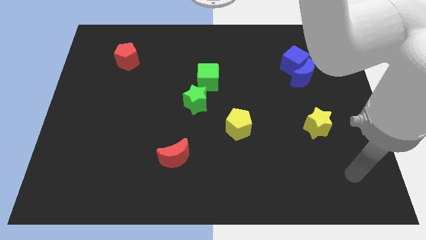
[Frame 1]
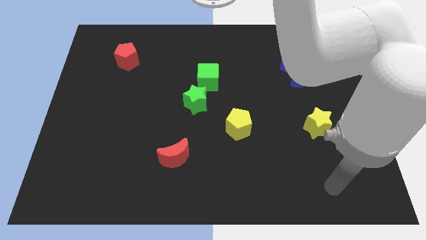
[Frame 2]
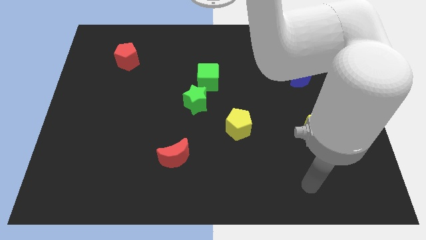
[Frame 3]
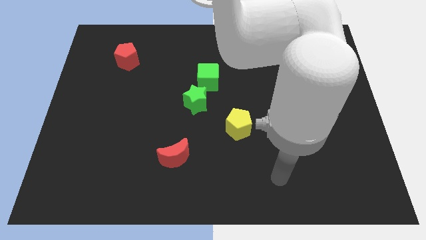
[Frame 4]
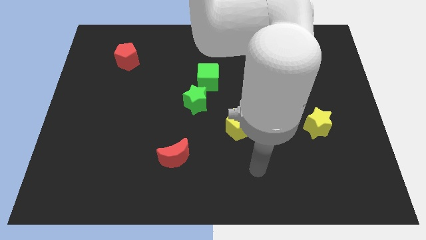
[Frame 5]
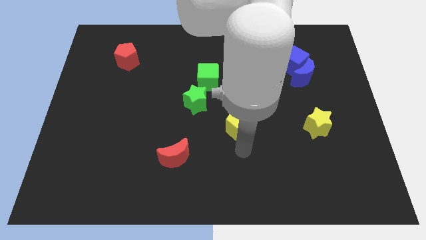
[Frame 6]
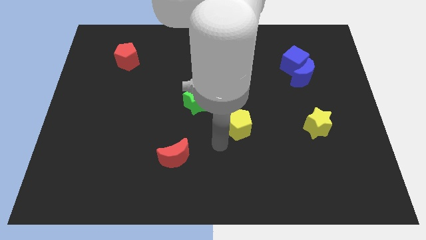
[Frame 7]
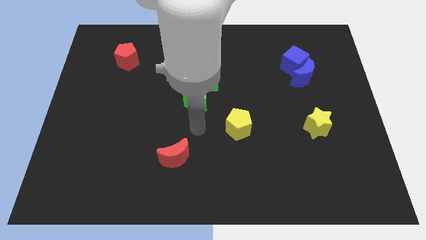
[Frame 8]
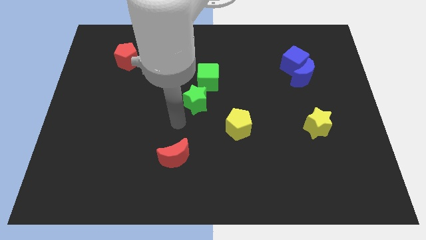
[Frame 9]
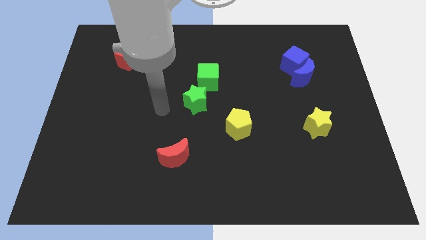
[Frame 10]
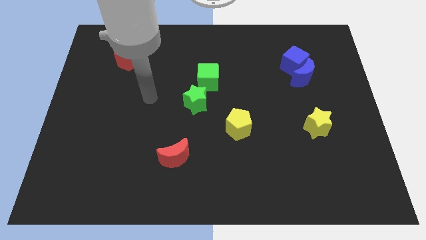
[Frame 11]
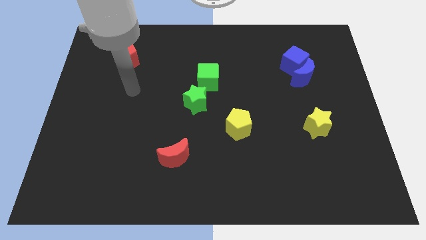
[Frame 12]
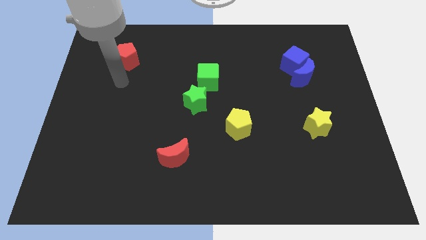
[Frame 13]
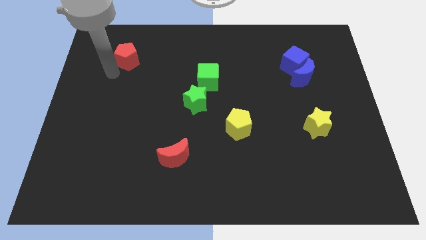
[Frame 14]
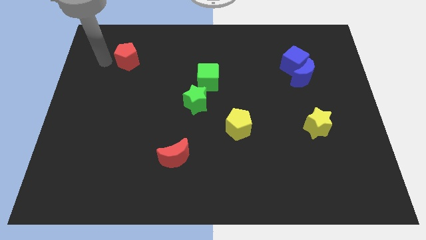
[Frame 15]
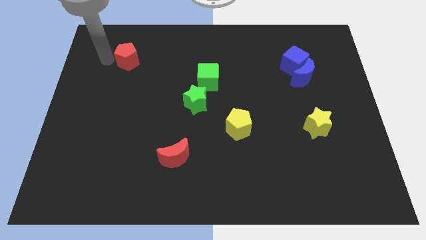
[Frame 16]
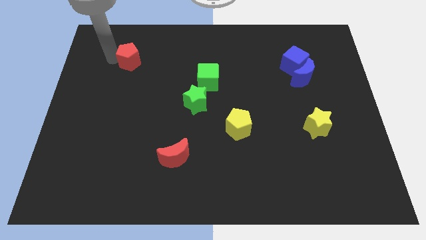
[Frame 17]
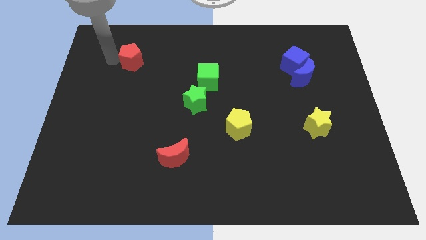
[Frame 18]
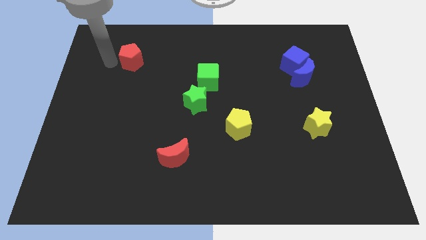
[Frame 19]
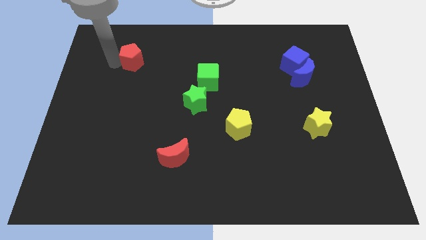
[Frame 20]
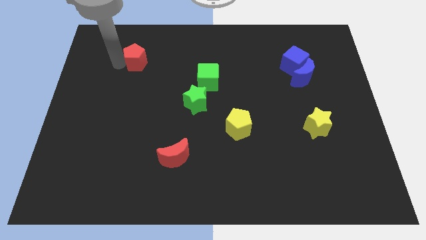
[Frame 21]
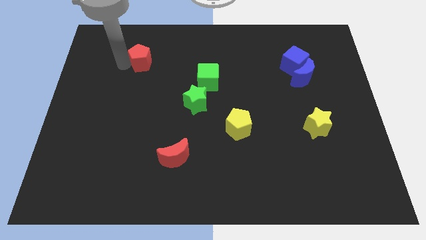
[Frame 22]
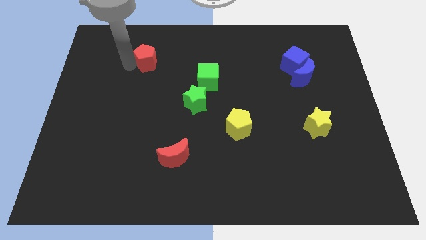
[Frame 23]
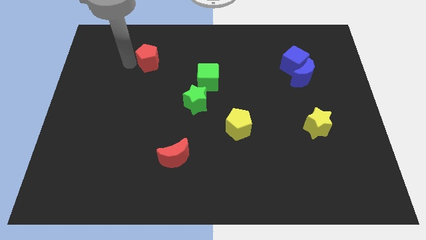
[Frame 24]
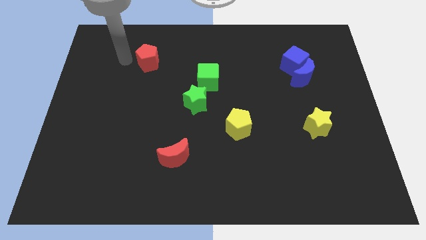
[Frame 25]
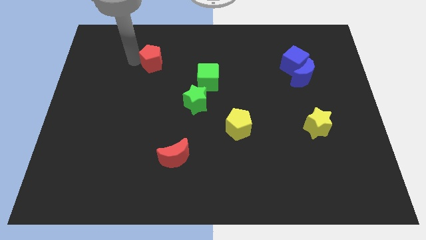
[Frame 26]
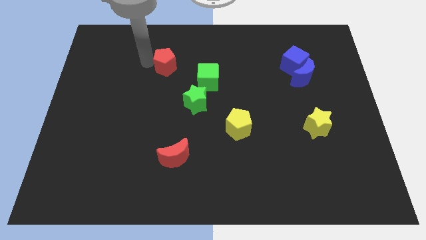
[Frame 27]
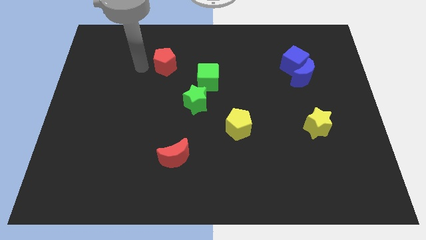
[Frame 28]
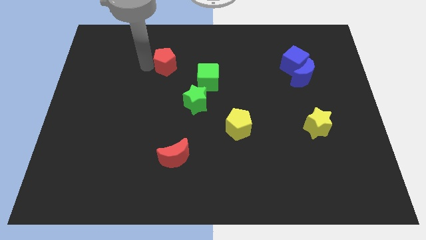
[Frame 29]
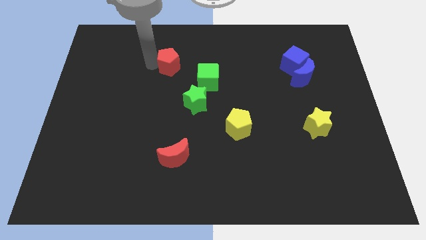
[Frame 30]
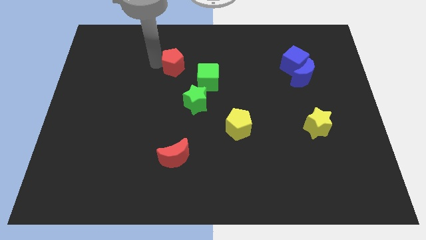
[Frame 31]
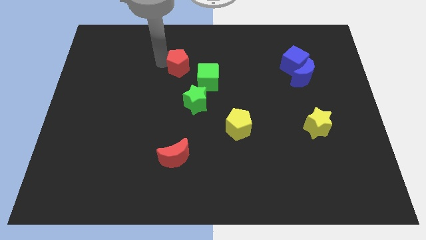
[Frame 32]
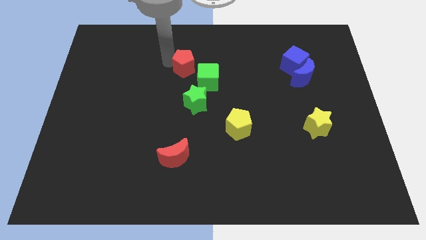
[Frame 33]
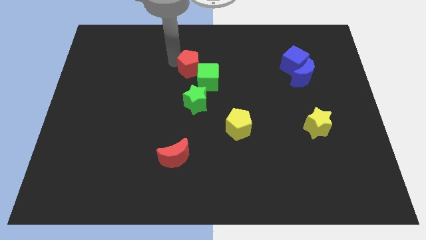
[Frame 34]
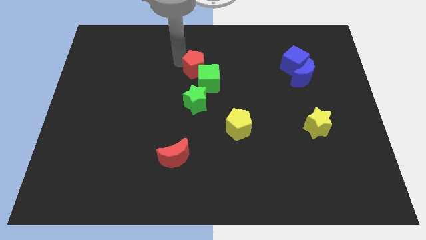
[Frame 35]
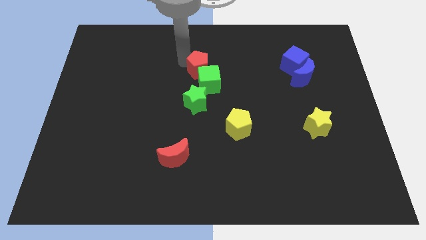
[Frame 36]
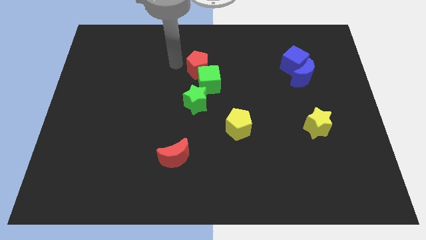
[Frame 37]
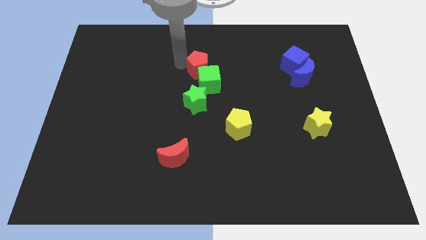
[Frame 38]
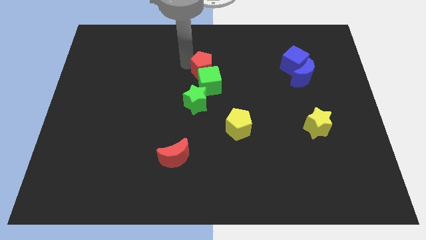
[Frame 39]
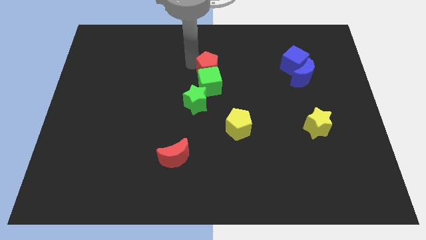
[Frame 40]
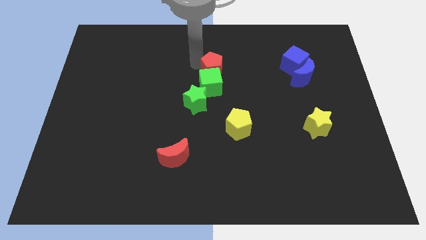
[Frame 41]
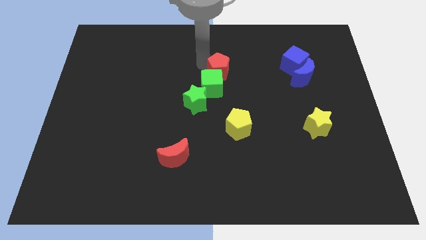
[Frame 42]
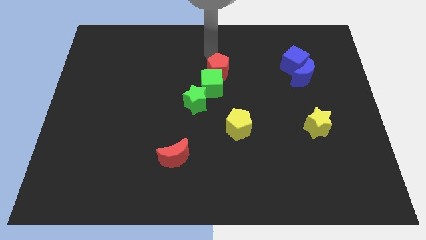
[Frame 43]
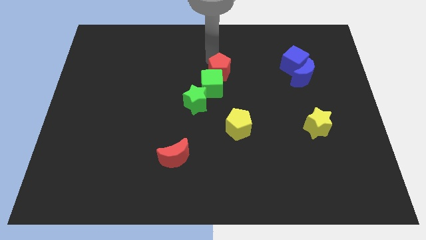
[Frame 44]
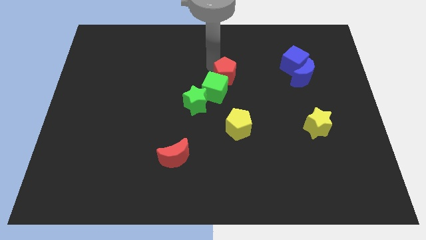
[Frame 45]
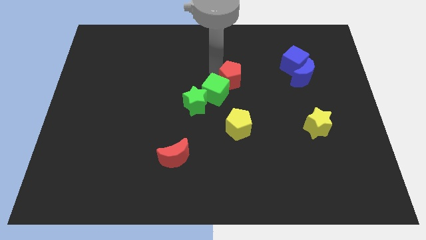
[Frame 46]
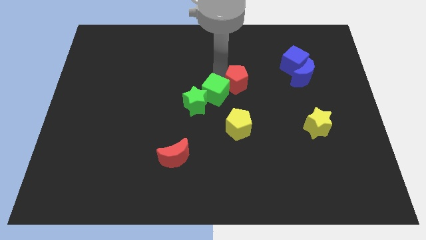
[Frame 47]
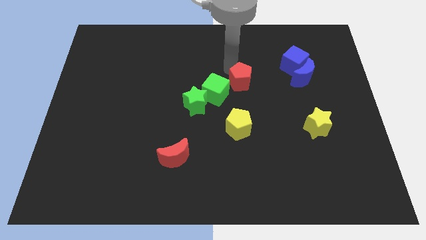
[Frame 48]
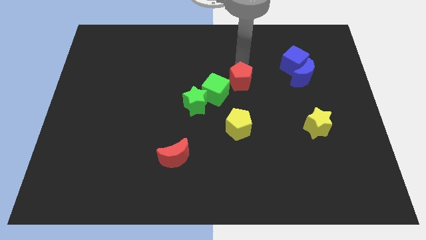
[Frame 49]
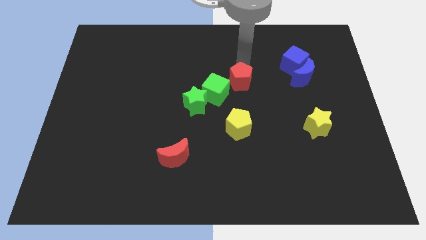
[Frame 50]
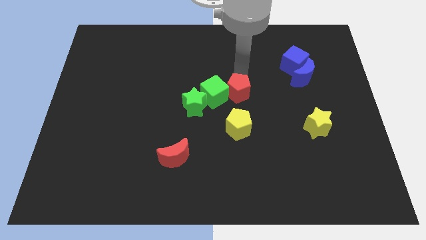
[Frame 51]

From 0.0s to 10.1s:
slide the red pentagon to the bottom right of the green cube

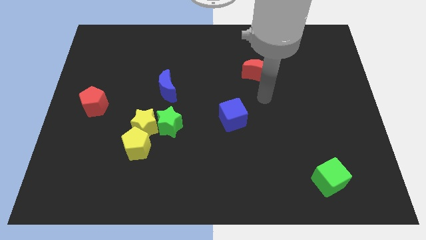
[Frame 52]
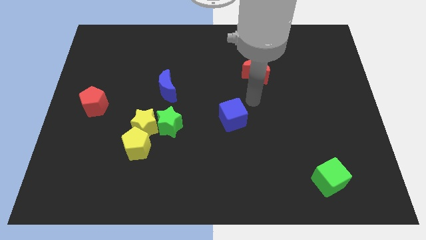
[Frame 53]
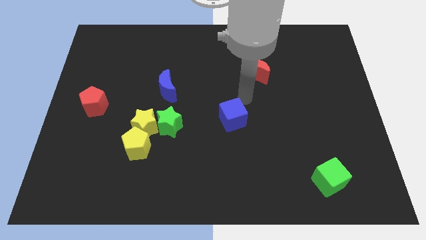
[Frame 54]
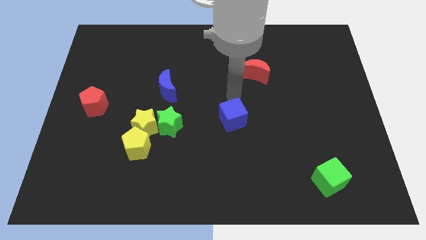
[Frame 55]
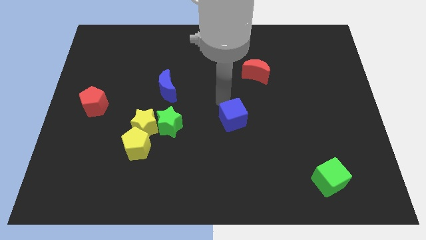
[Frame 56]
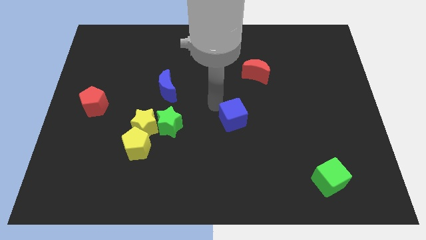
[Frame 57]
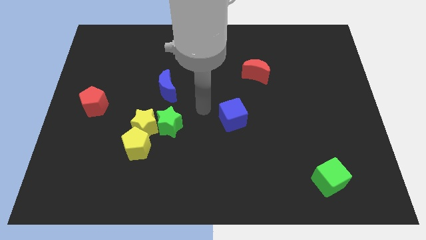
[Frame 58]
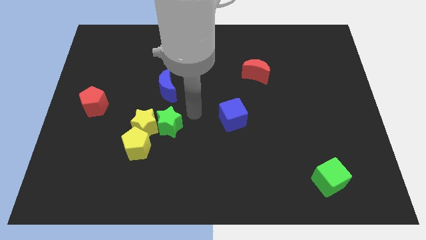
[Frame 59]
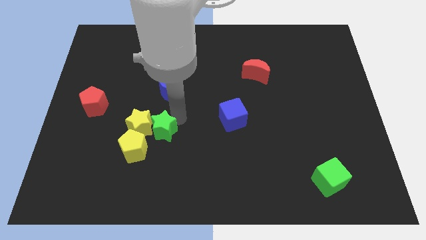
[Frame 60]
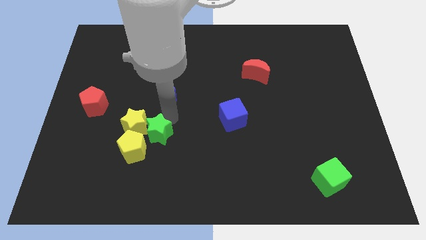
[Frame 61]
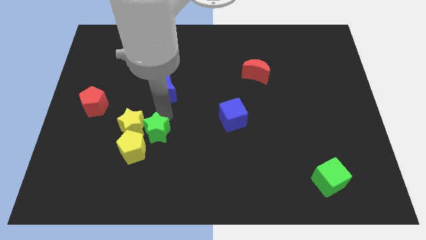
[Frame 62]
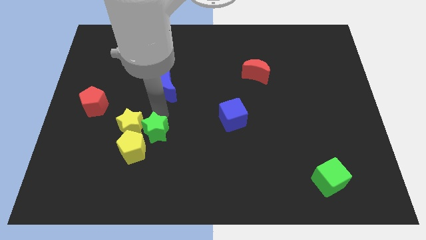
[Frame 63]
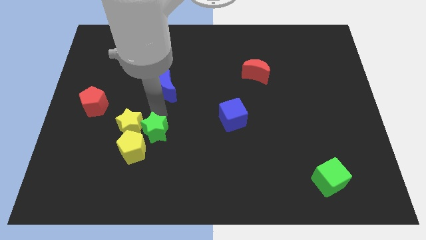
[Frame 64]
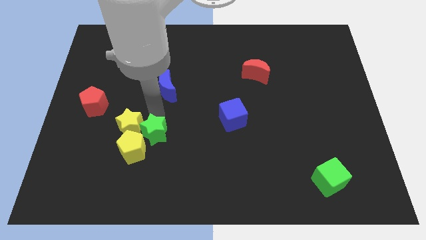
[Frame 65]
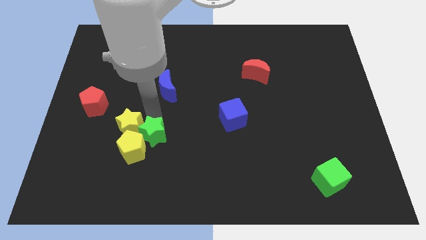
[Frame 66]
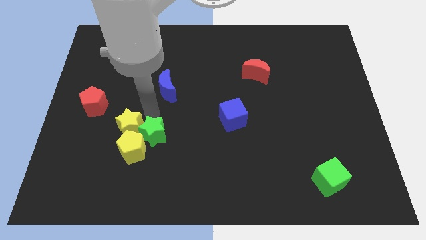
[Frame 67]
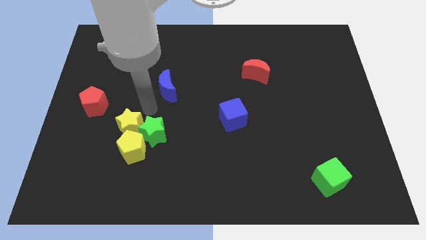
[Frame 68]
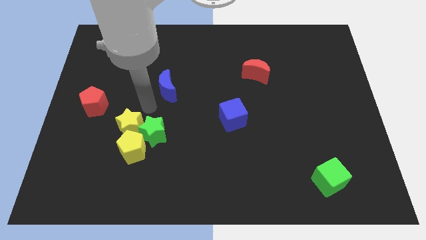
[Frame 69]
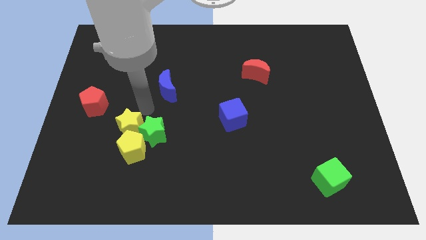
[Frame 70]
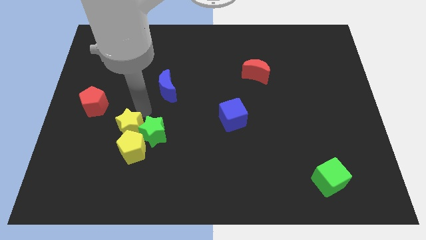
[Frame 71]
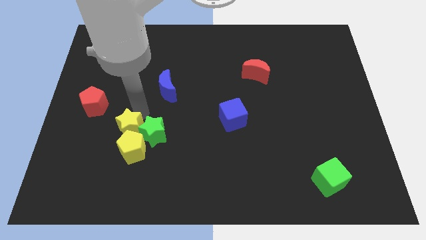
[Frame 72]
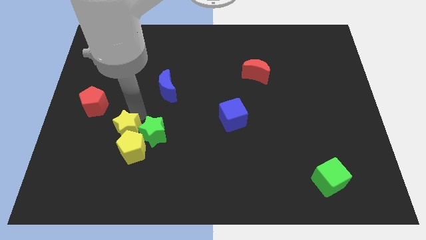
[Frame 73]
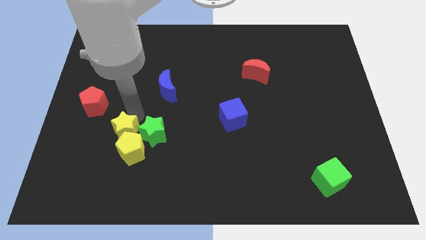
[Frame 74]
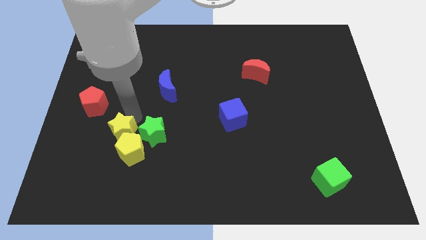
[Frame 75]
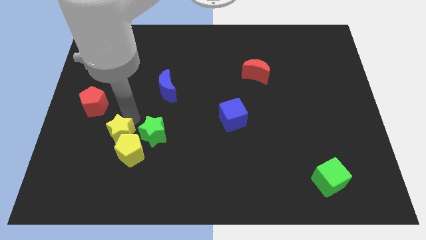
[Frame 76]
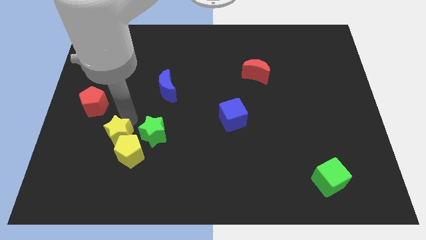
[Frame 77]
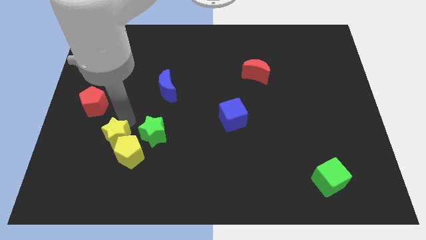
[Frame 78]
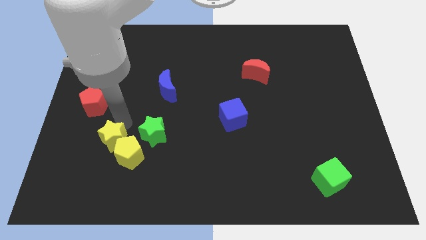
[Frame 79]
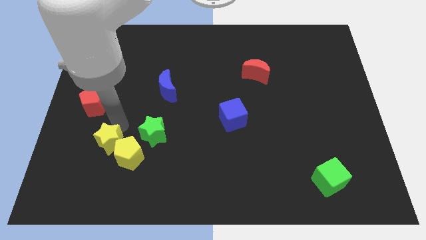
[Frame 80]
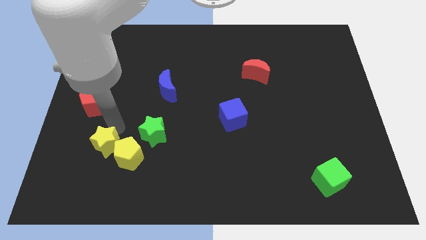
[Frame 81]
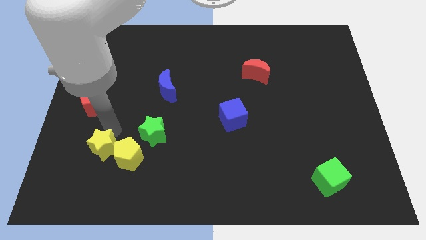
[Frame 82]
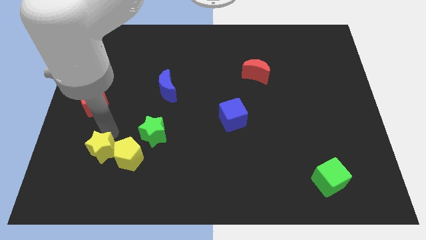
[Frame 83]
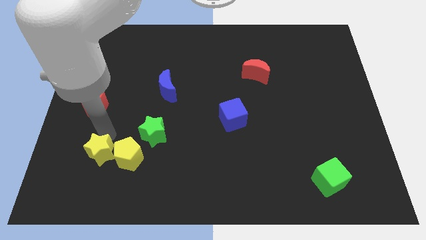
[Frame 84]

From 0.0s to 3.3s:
push the yellow star diagonally down and to the left of the yellow pentagon
